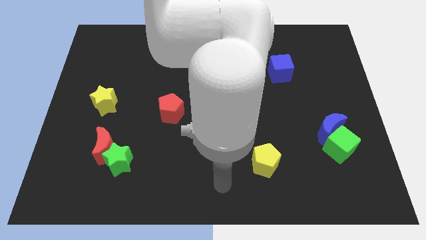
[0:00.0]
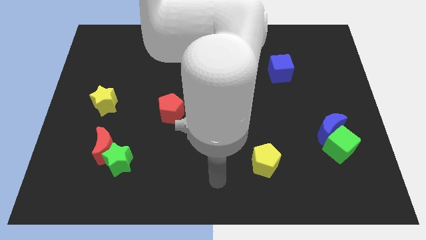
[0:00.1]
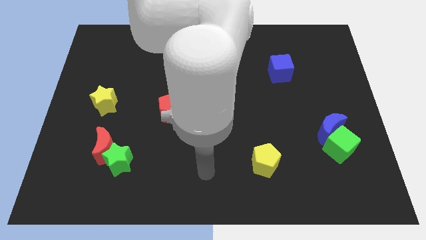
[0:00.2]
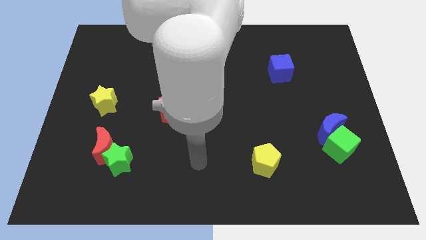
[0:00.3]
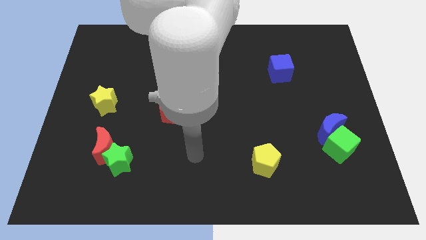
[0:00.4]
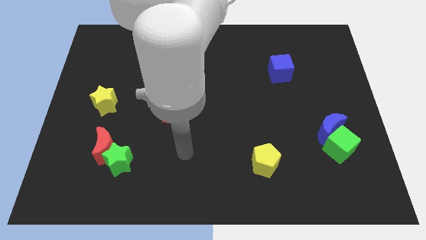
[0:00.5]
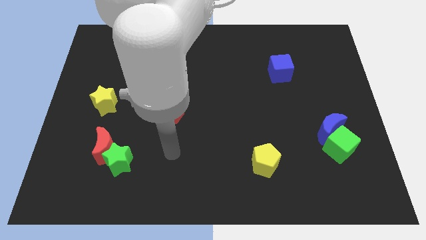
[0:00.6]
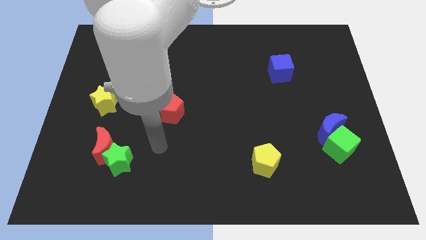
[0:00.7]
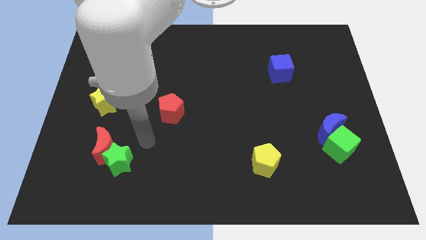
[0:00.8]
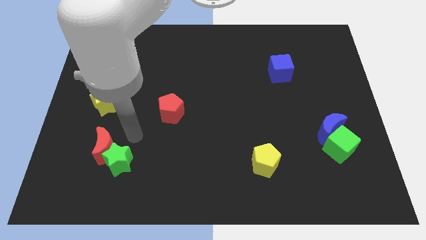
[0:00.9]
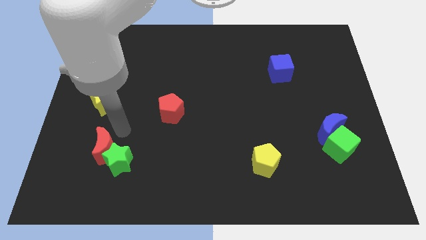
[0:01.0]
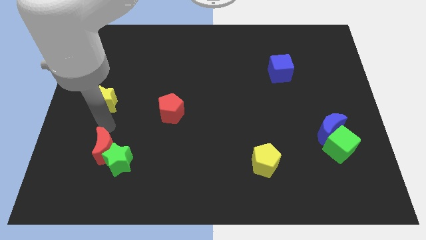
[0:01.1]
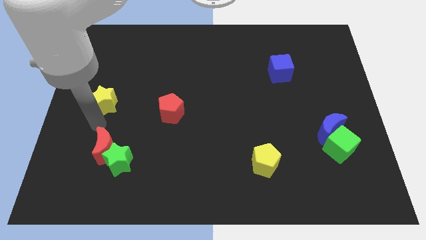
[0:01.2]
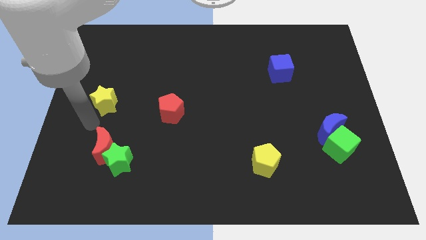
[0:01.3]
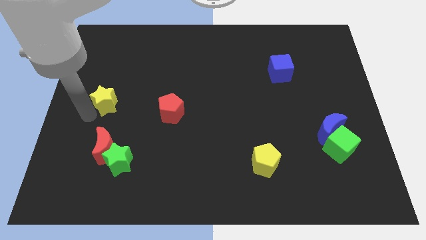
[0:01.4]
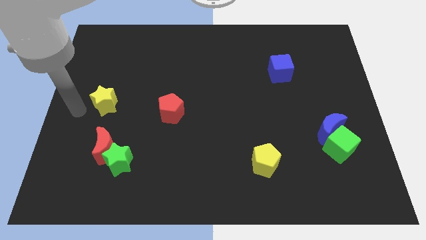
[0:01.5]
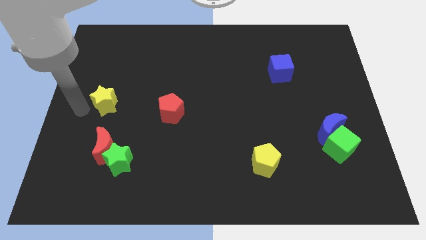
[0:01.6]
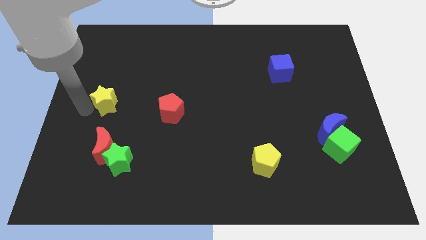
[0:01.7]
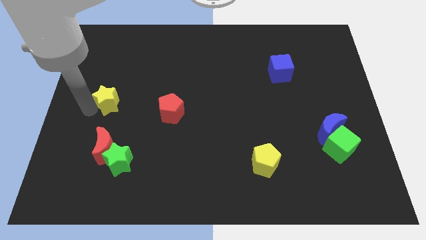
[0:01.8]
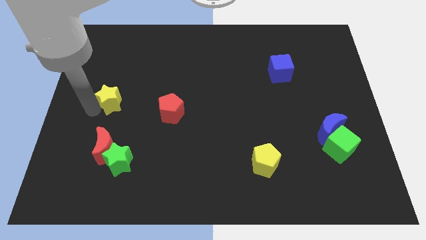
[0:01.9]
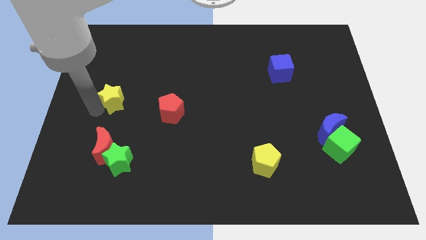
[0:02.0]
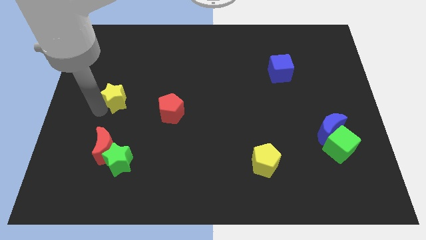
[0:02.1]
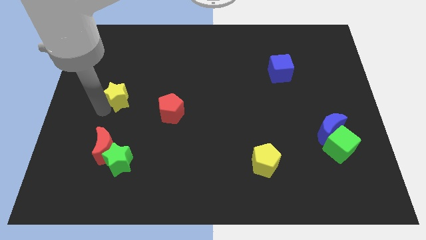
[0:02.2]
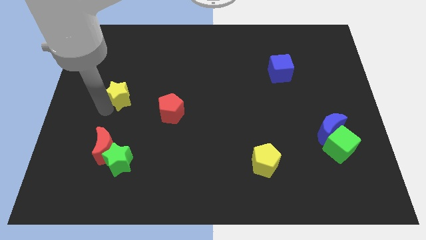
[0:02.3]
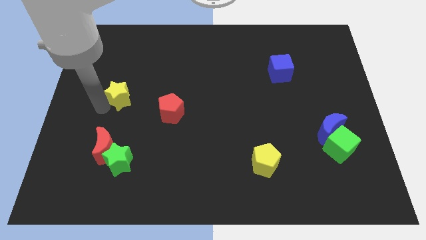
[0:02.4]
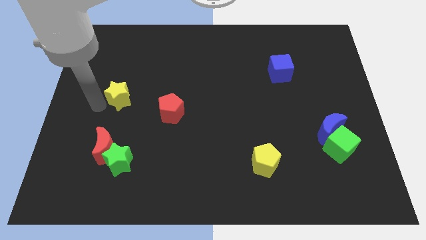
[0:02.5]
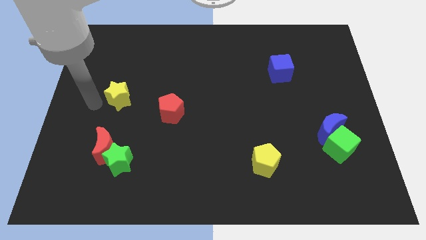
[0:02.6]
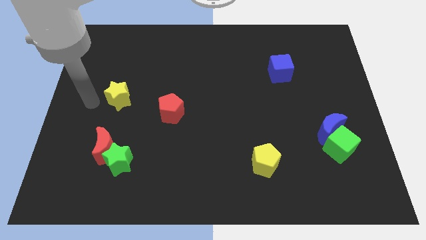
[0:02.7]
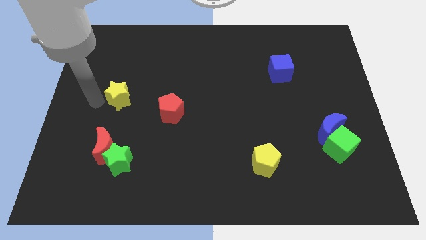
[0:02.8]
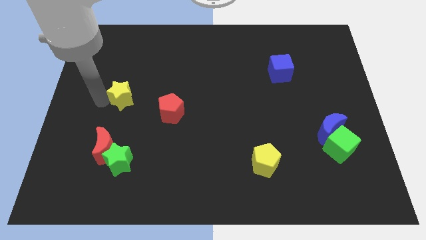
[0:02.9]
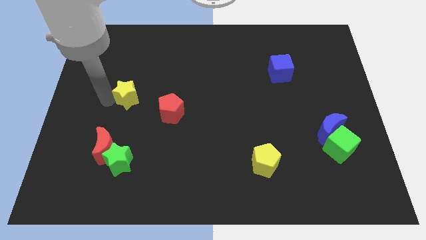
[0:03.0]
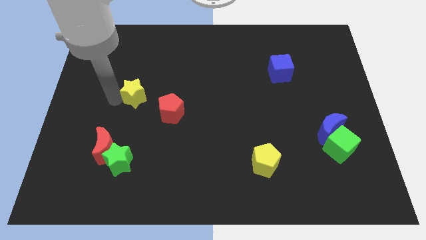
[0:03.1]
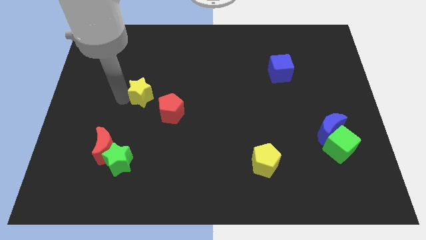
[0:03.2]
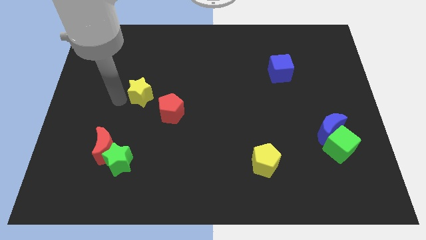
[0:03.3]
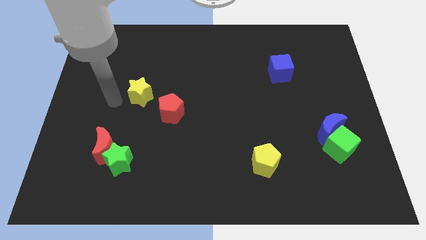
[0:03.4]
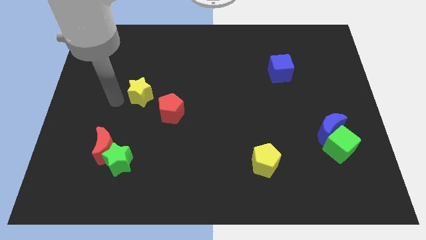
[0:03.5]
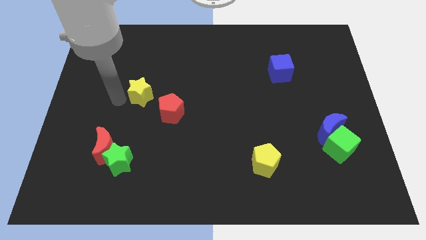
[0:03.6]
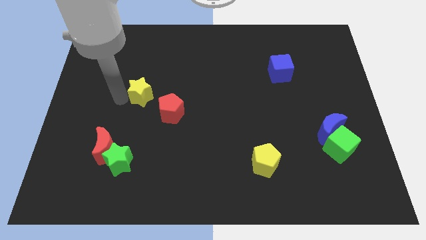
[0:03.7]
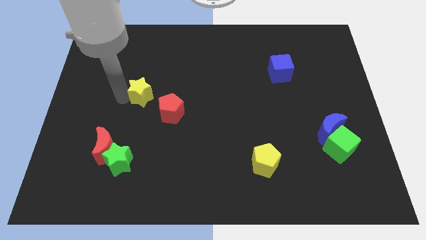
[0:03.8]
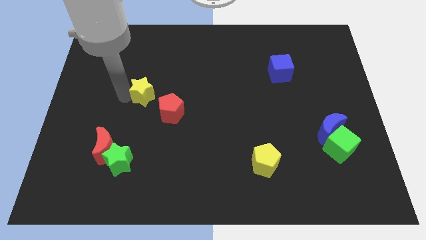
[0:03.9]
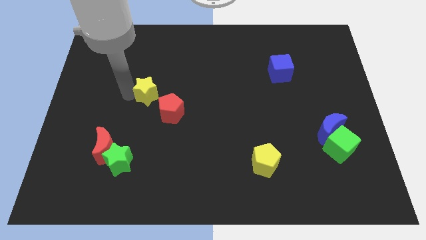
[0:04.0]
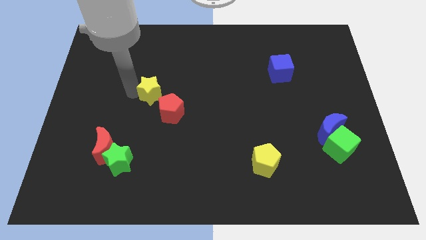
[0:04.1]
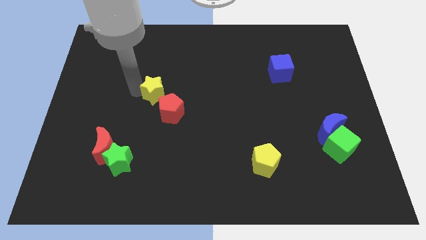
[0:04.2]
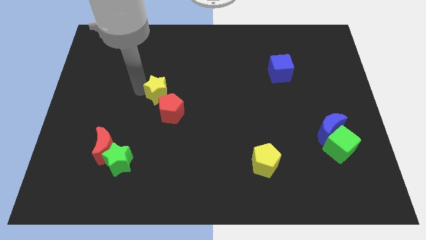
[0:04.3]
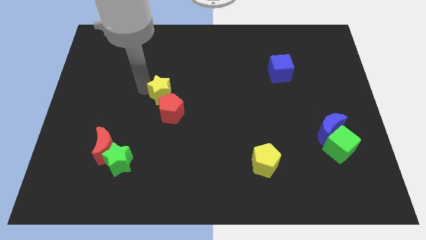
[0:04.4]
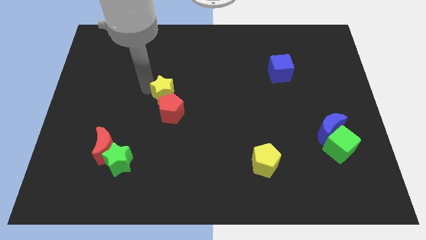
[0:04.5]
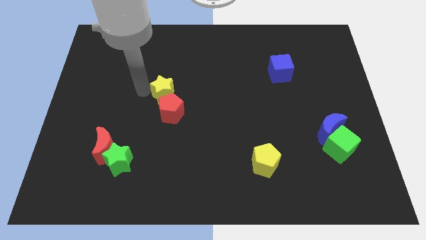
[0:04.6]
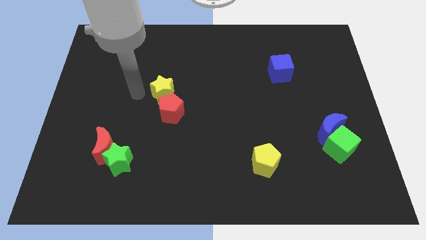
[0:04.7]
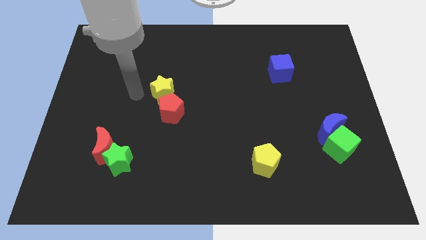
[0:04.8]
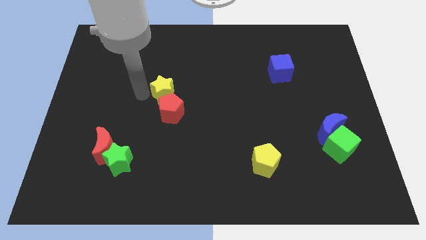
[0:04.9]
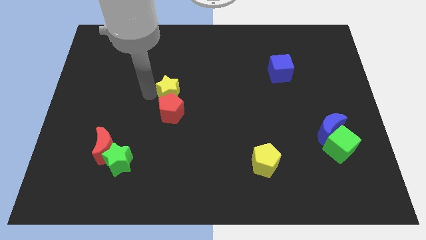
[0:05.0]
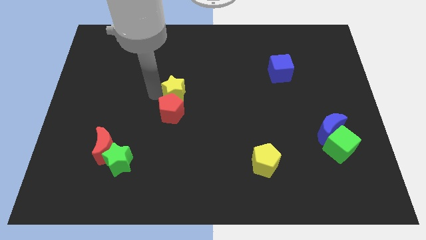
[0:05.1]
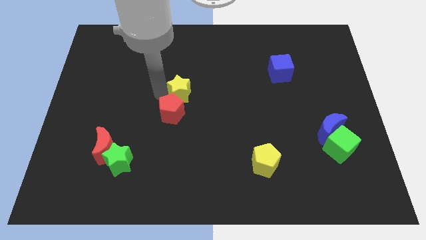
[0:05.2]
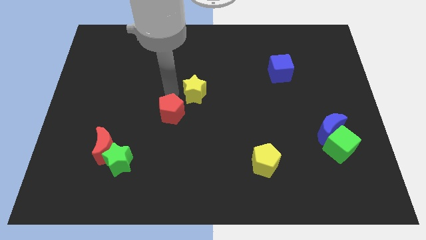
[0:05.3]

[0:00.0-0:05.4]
move the yellow star to the right

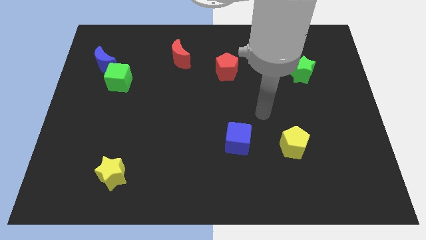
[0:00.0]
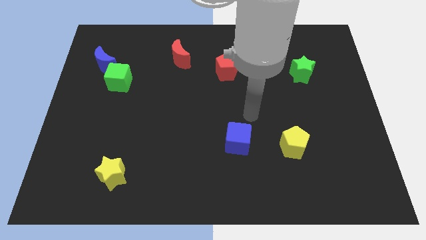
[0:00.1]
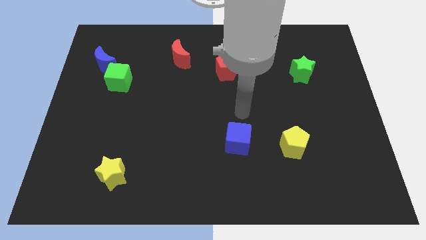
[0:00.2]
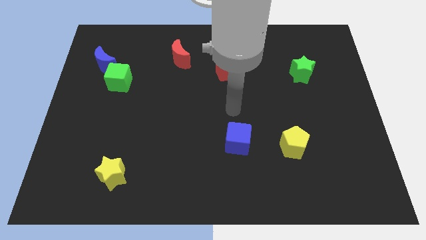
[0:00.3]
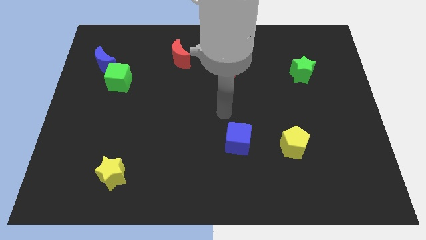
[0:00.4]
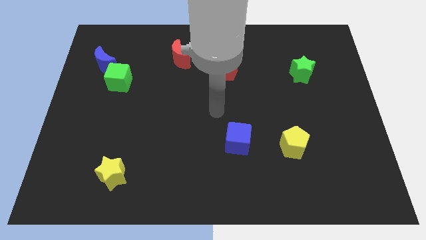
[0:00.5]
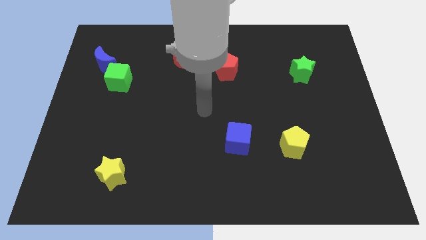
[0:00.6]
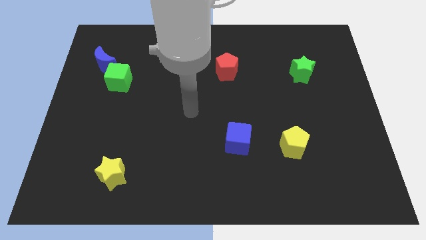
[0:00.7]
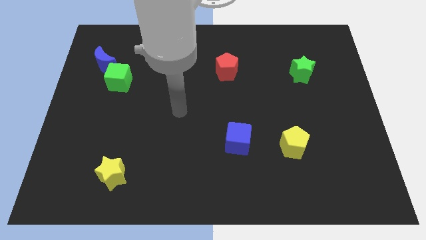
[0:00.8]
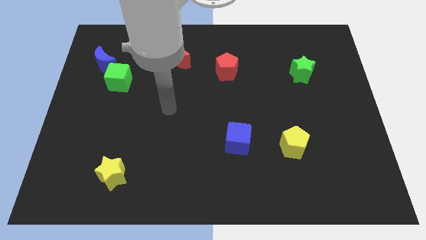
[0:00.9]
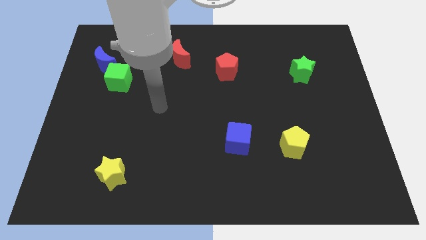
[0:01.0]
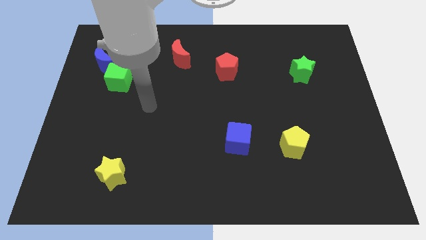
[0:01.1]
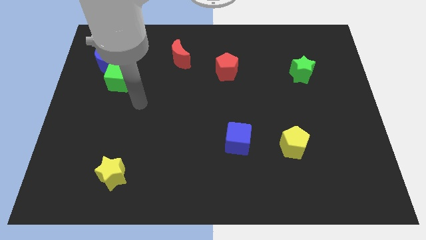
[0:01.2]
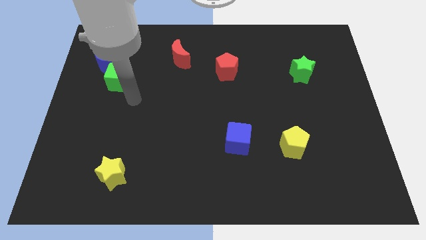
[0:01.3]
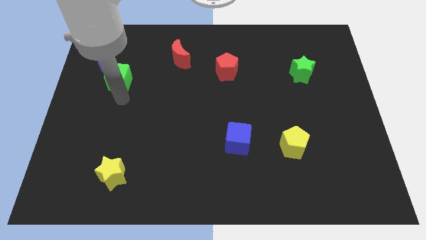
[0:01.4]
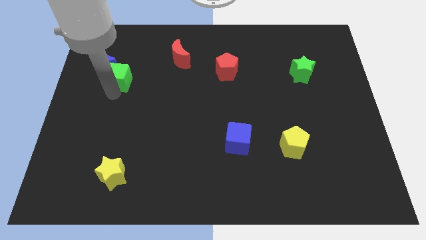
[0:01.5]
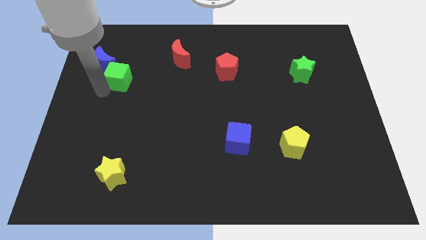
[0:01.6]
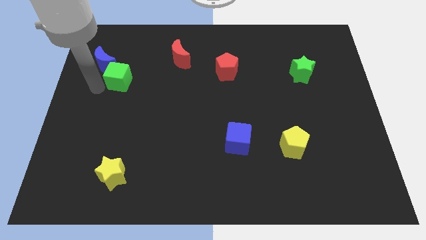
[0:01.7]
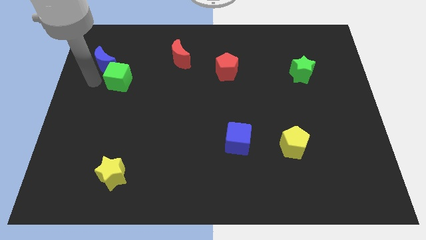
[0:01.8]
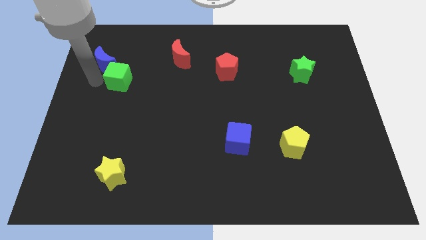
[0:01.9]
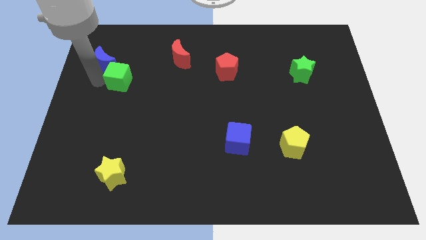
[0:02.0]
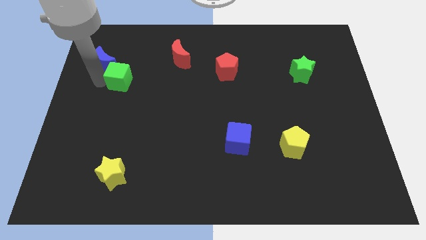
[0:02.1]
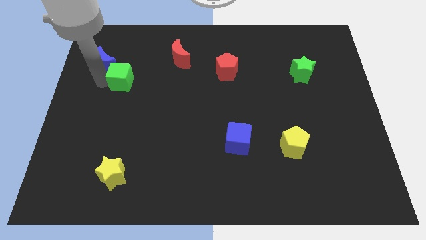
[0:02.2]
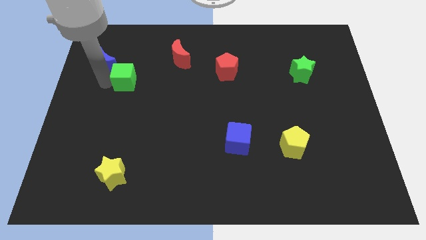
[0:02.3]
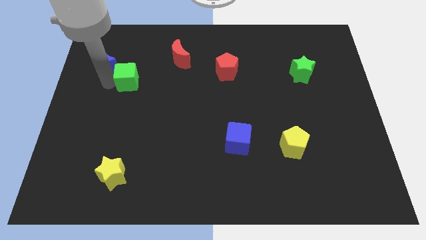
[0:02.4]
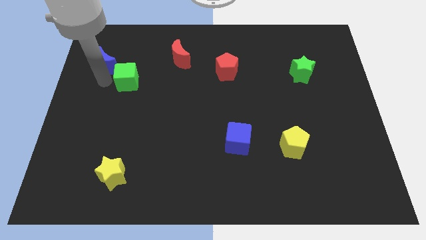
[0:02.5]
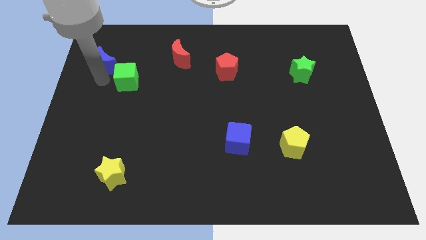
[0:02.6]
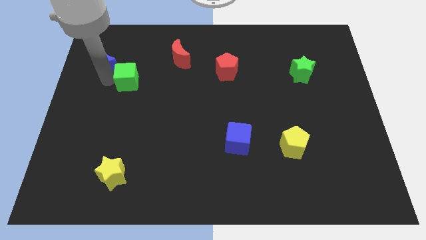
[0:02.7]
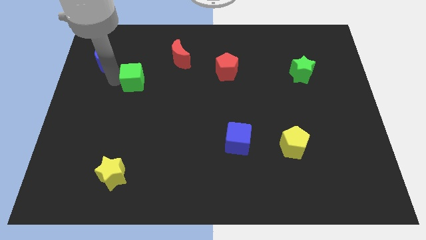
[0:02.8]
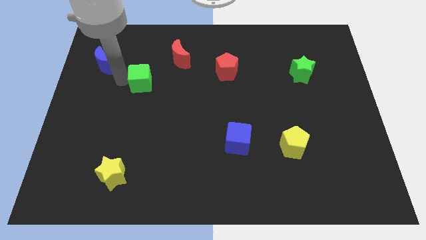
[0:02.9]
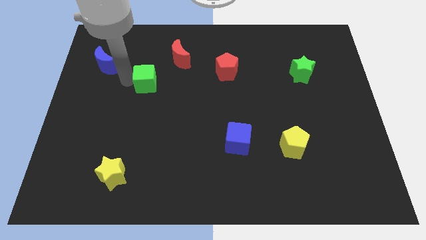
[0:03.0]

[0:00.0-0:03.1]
push the green cube somewhat to the right
